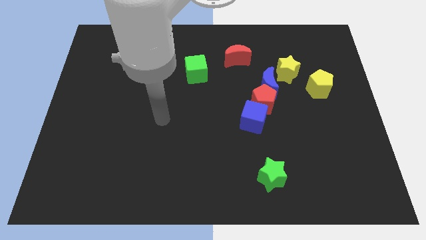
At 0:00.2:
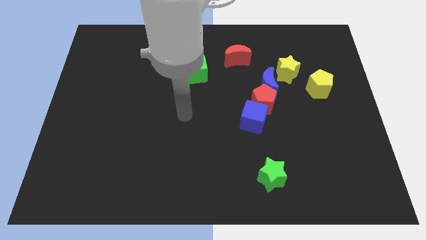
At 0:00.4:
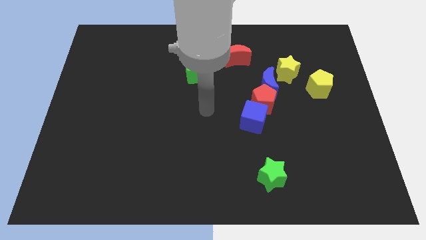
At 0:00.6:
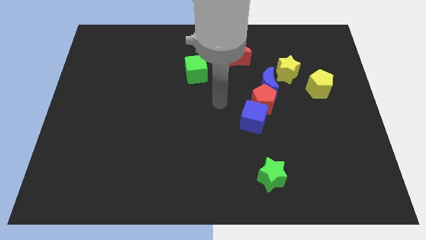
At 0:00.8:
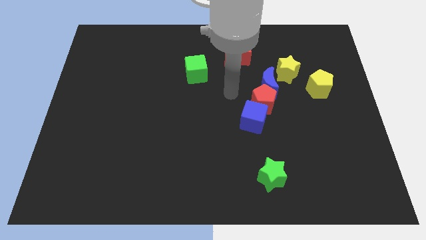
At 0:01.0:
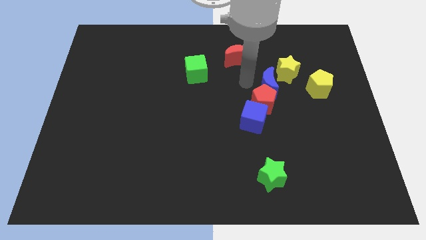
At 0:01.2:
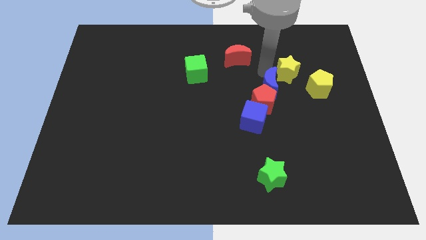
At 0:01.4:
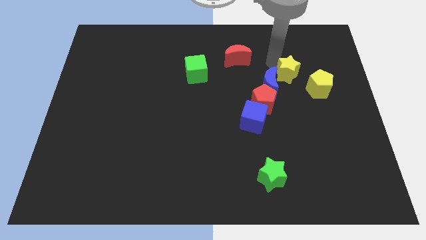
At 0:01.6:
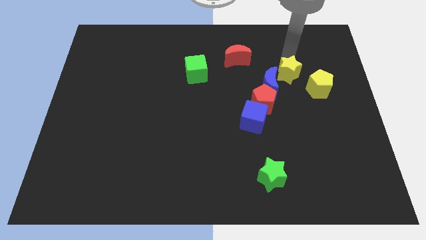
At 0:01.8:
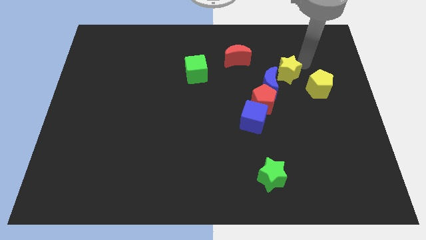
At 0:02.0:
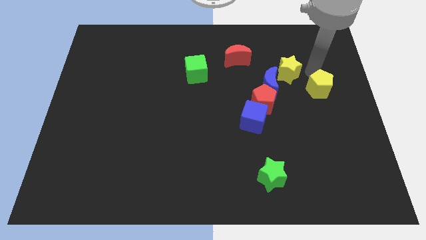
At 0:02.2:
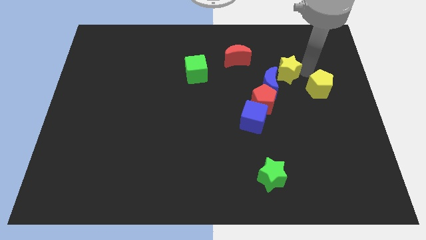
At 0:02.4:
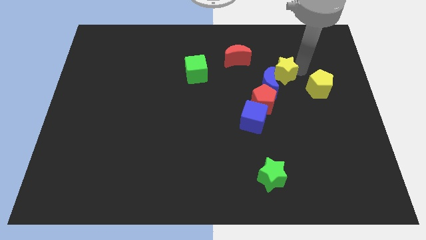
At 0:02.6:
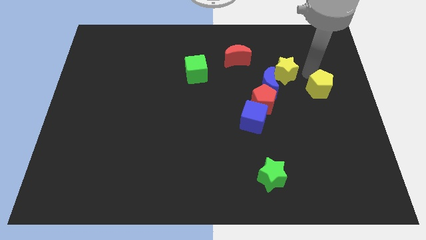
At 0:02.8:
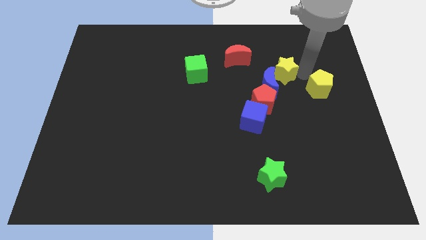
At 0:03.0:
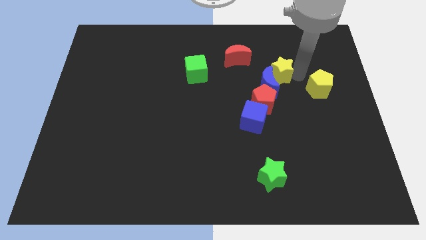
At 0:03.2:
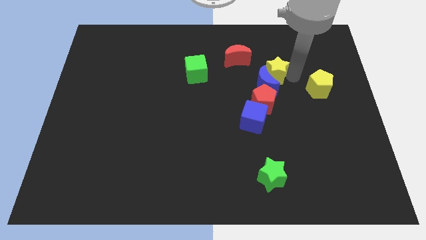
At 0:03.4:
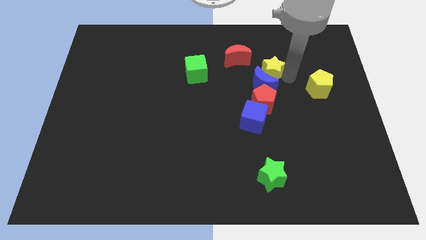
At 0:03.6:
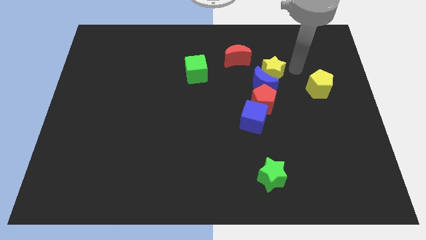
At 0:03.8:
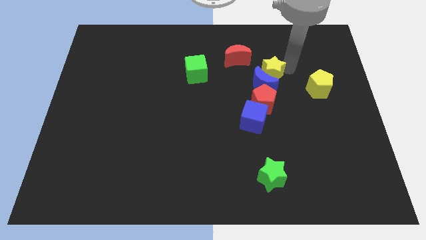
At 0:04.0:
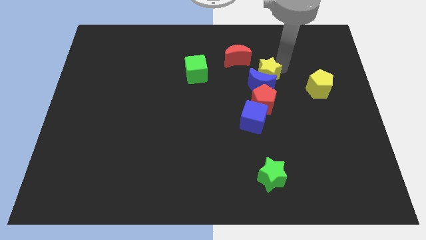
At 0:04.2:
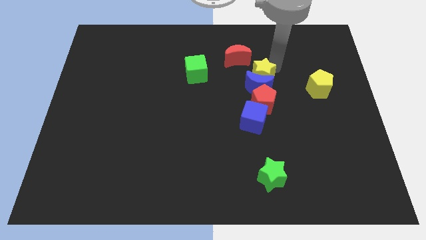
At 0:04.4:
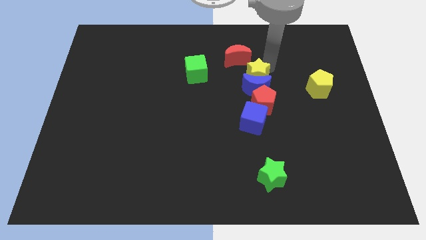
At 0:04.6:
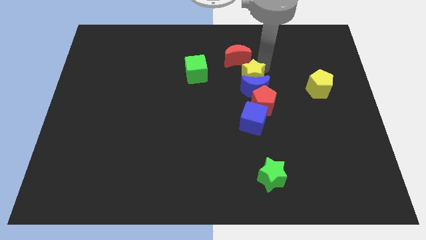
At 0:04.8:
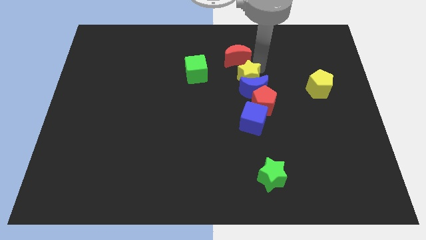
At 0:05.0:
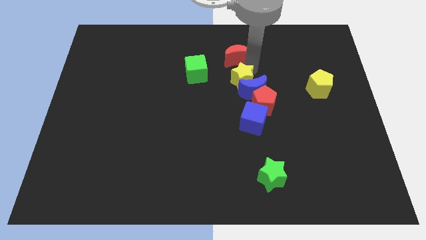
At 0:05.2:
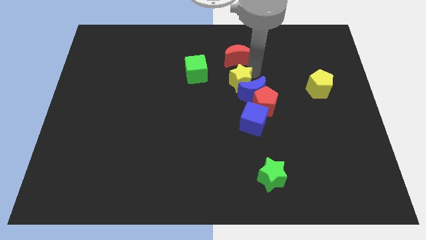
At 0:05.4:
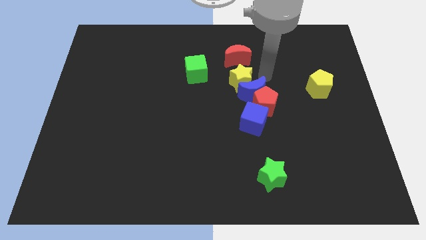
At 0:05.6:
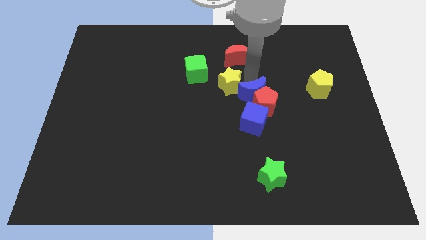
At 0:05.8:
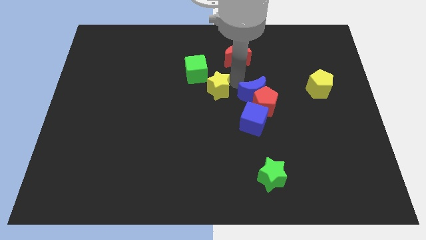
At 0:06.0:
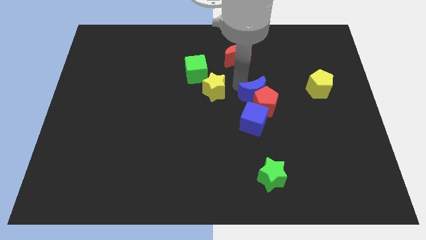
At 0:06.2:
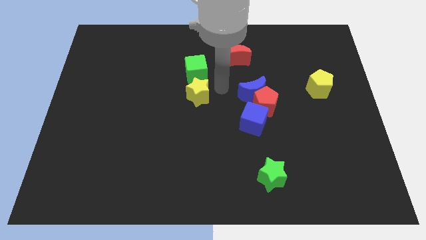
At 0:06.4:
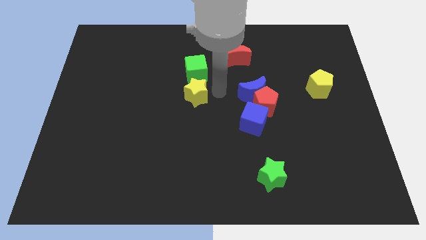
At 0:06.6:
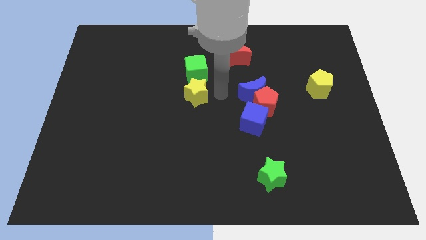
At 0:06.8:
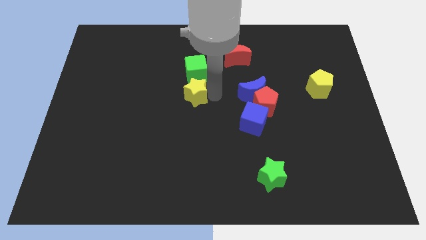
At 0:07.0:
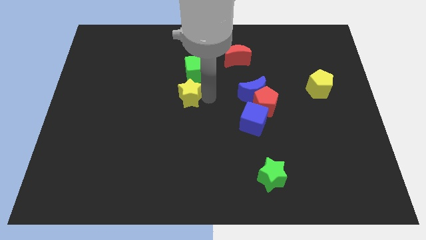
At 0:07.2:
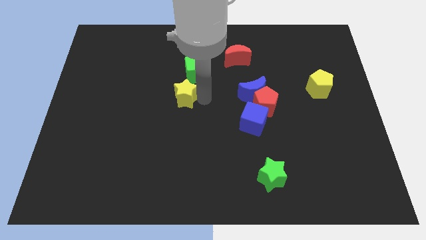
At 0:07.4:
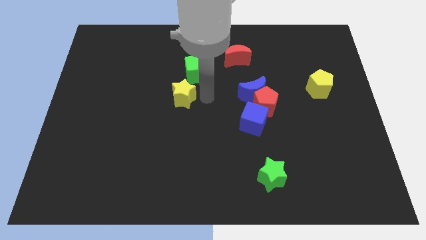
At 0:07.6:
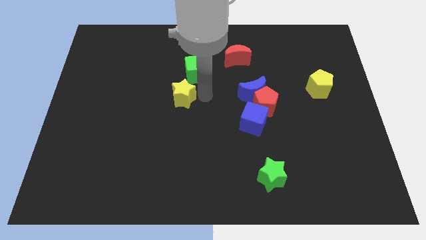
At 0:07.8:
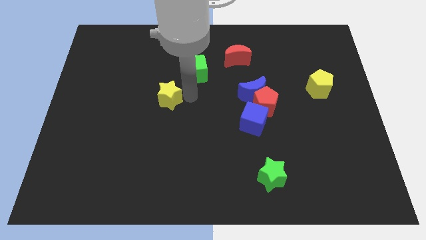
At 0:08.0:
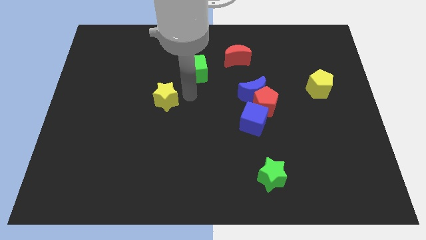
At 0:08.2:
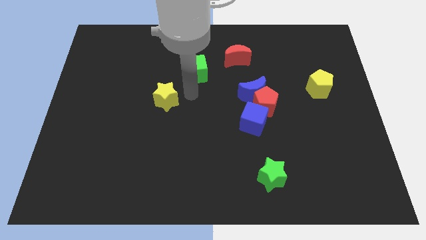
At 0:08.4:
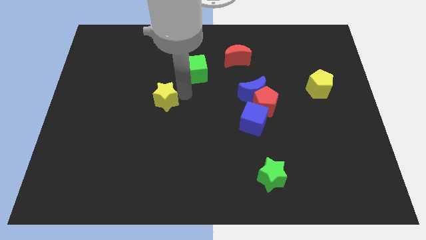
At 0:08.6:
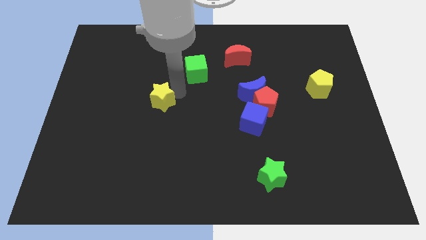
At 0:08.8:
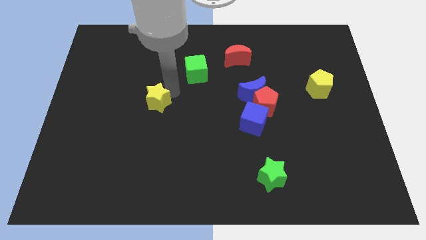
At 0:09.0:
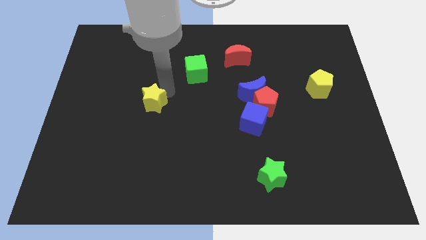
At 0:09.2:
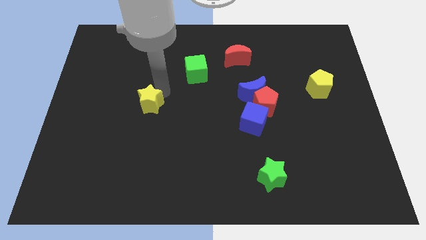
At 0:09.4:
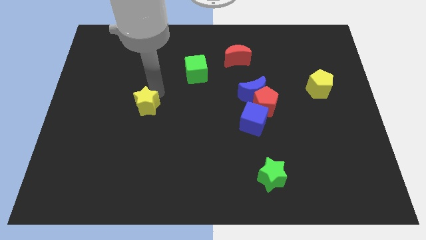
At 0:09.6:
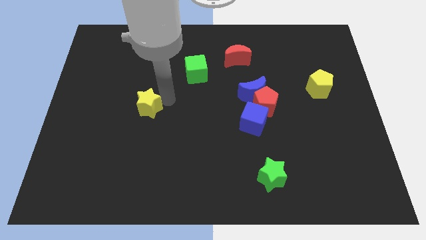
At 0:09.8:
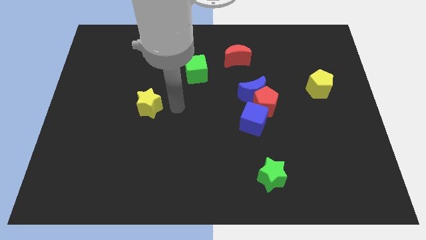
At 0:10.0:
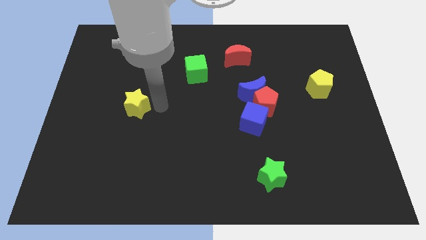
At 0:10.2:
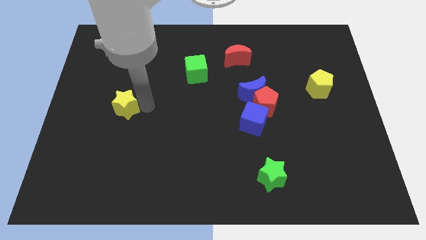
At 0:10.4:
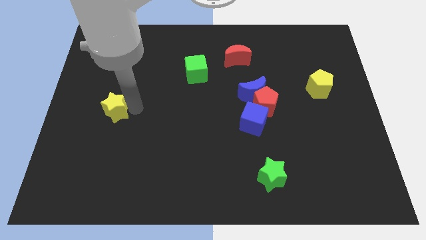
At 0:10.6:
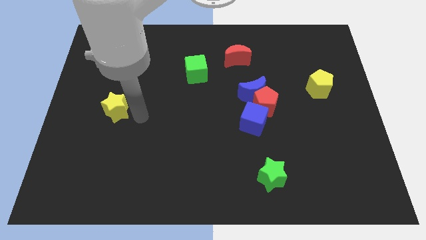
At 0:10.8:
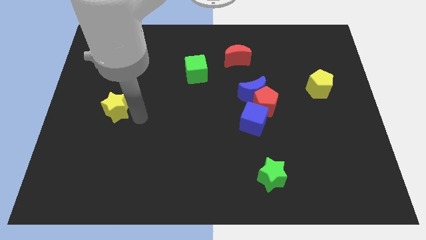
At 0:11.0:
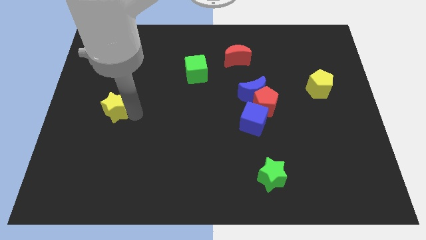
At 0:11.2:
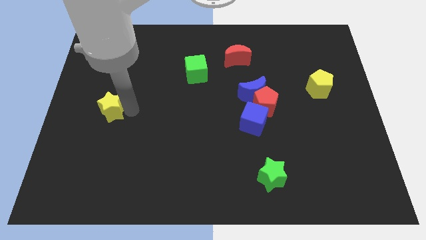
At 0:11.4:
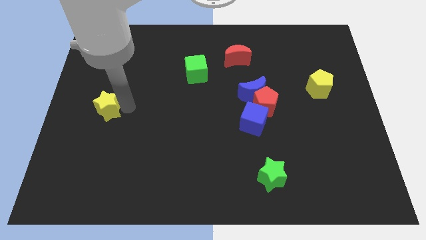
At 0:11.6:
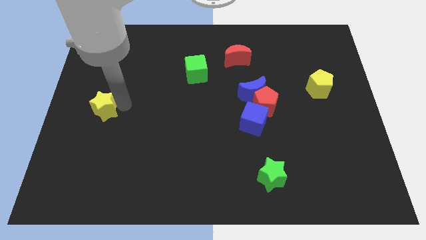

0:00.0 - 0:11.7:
slide the yellow star to the left side of the board
